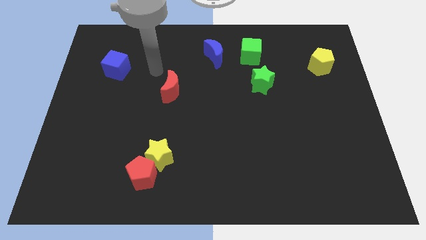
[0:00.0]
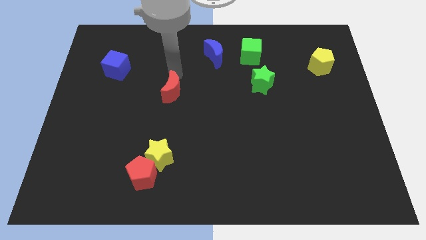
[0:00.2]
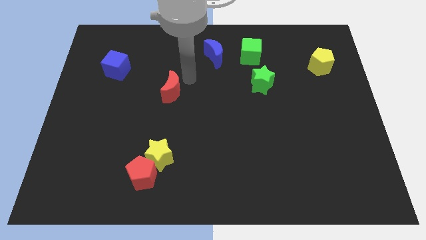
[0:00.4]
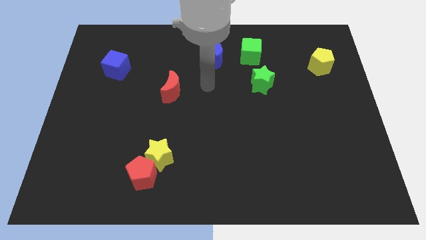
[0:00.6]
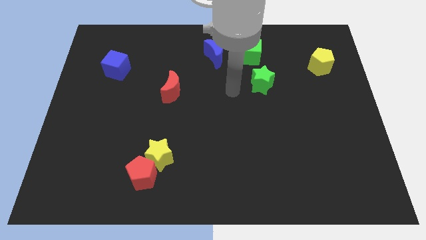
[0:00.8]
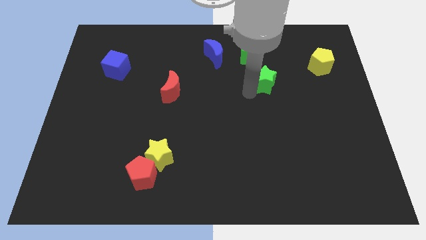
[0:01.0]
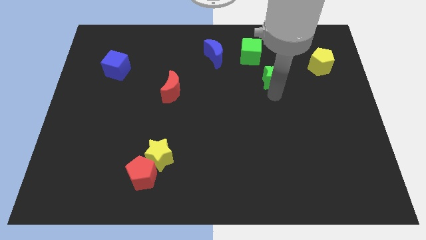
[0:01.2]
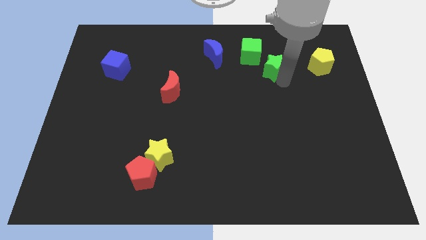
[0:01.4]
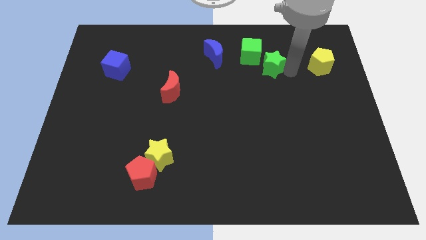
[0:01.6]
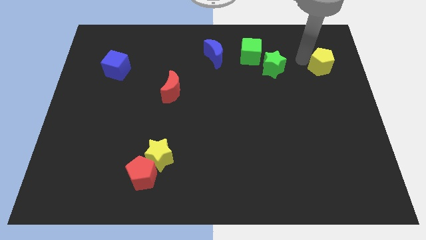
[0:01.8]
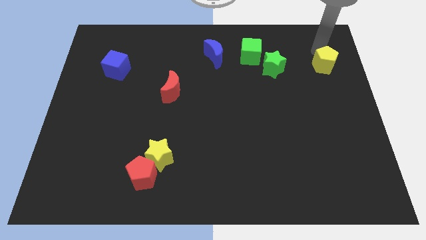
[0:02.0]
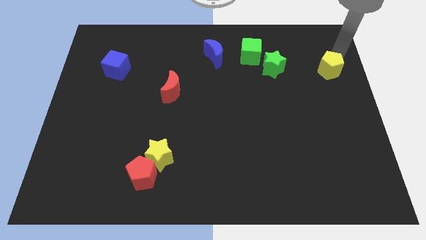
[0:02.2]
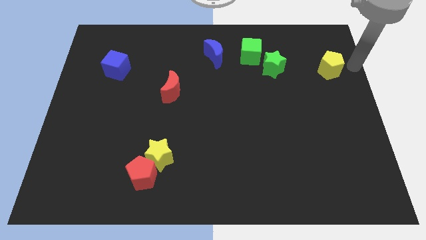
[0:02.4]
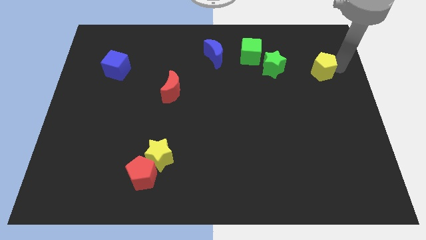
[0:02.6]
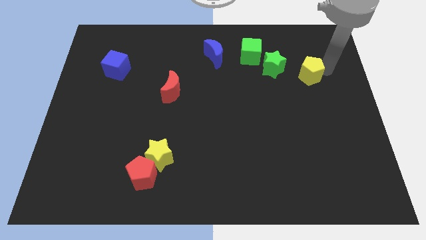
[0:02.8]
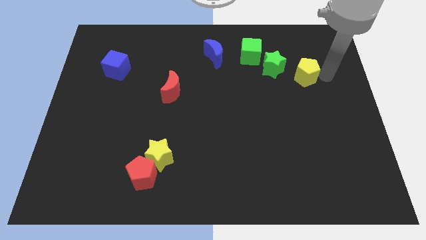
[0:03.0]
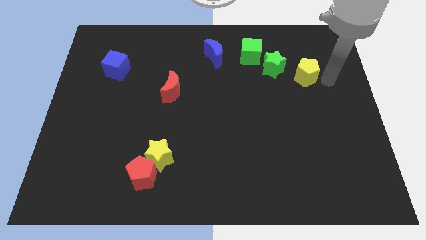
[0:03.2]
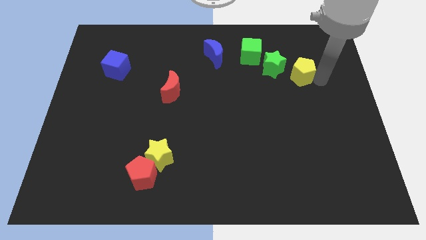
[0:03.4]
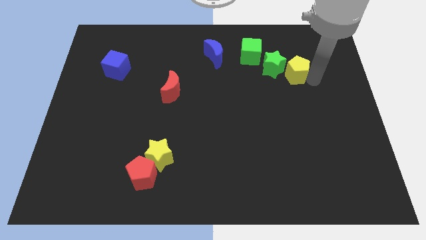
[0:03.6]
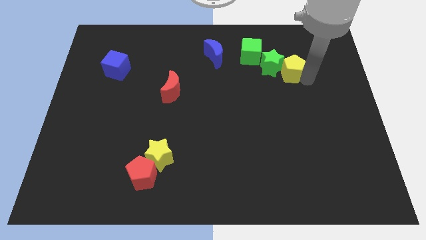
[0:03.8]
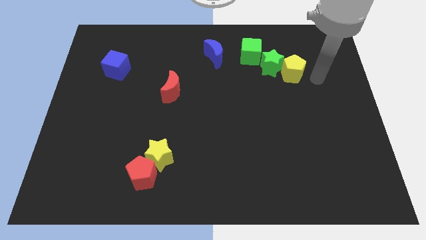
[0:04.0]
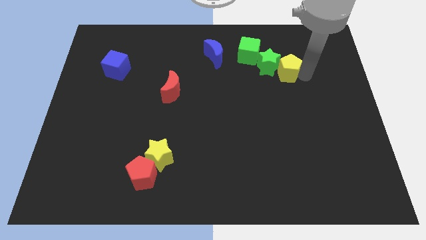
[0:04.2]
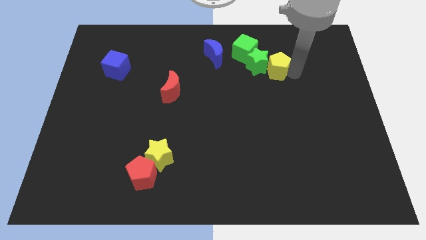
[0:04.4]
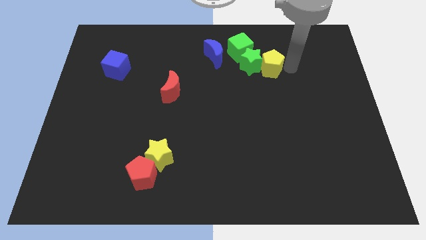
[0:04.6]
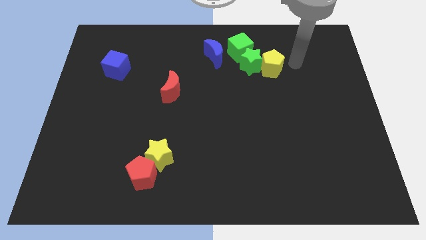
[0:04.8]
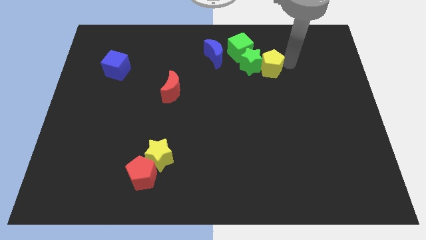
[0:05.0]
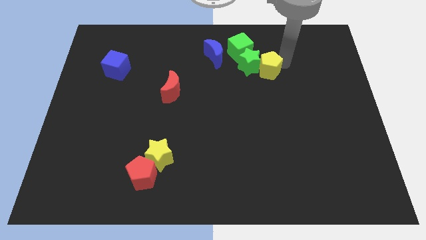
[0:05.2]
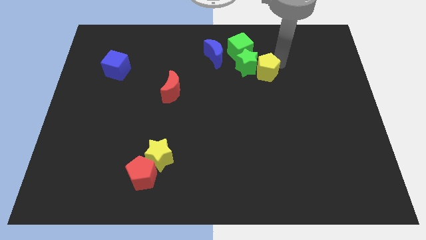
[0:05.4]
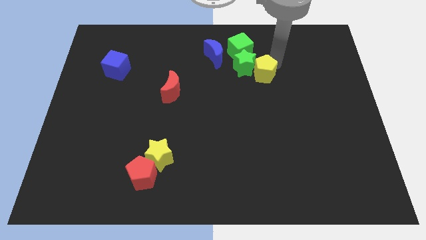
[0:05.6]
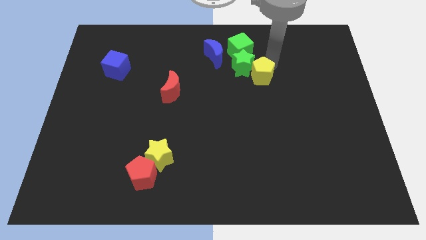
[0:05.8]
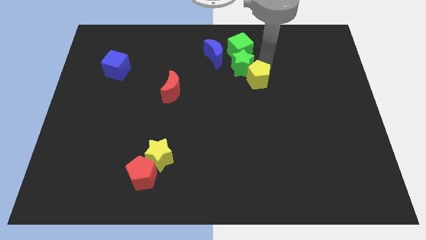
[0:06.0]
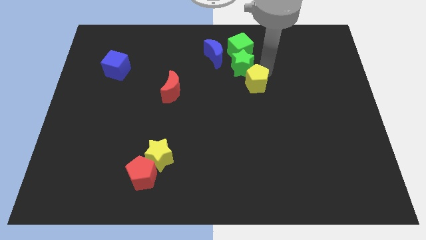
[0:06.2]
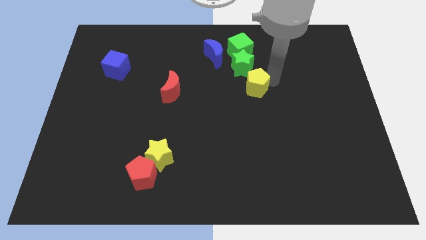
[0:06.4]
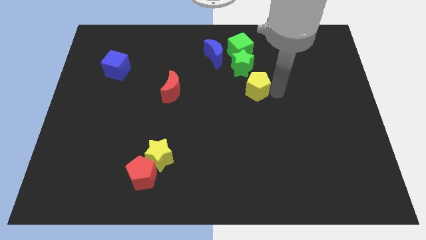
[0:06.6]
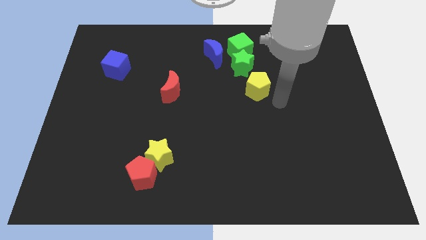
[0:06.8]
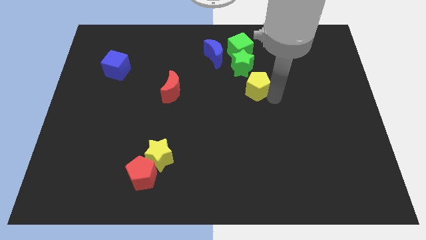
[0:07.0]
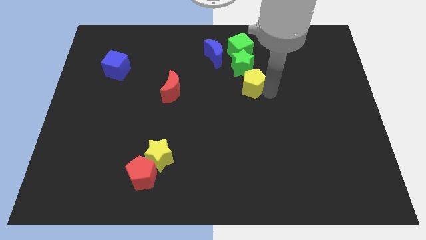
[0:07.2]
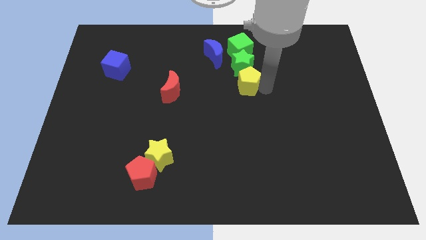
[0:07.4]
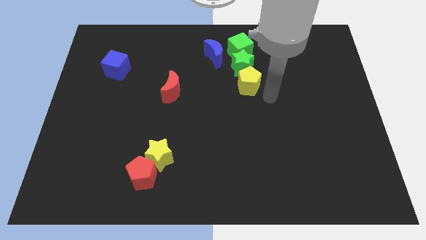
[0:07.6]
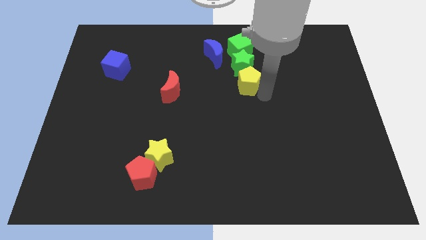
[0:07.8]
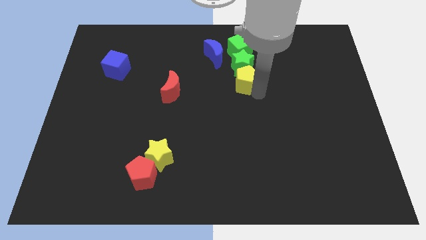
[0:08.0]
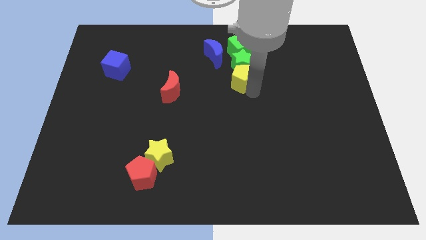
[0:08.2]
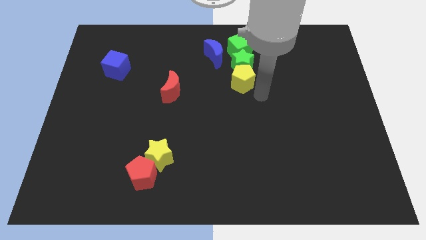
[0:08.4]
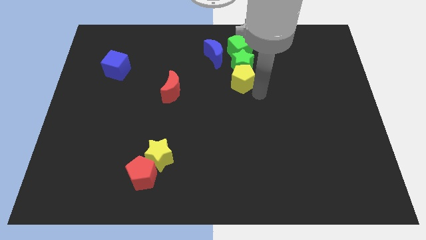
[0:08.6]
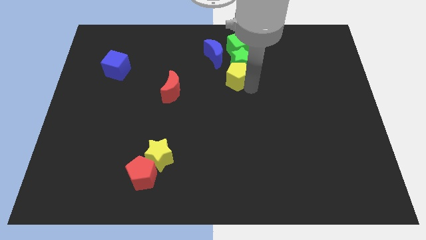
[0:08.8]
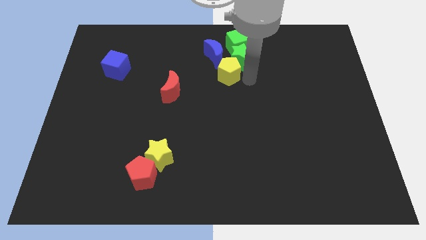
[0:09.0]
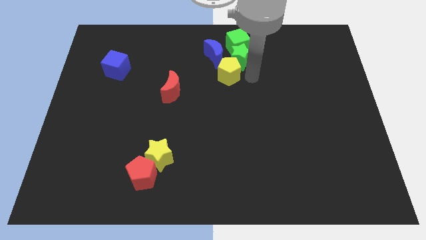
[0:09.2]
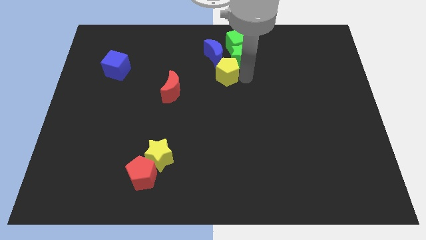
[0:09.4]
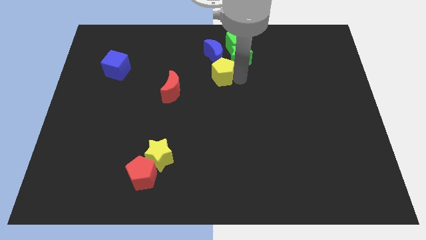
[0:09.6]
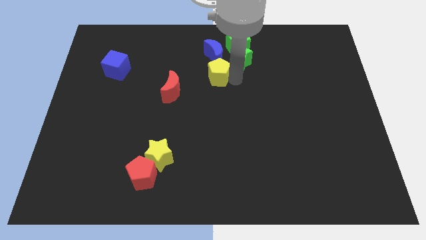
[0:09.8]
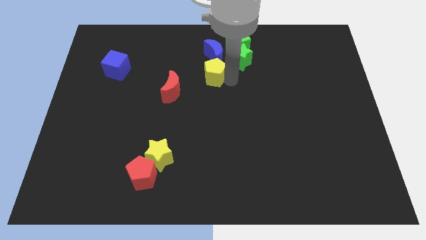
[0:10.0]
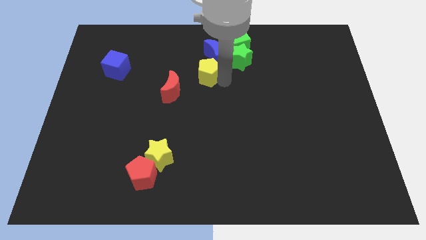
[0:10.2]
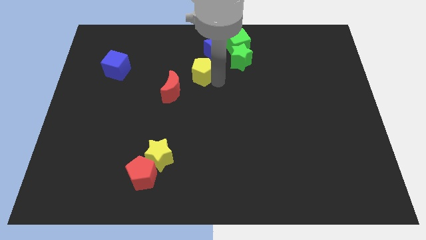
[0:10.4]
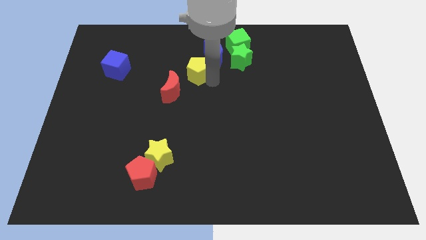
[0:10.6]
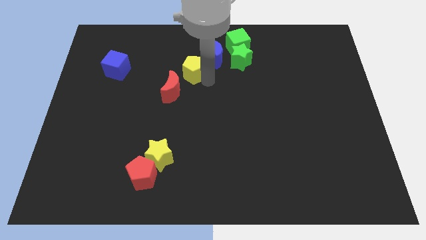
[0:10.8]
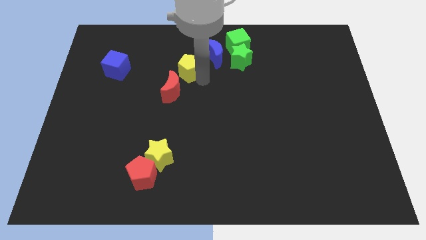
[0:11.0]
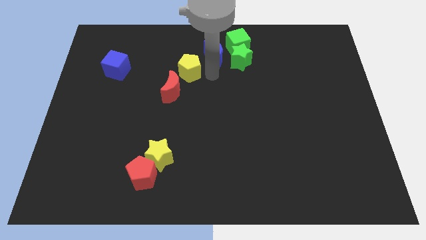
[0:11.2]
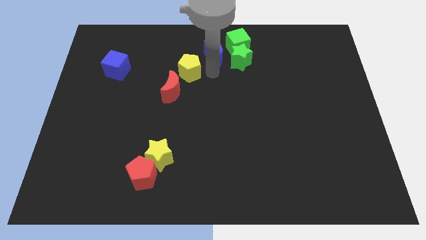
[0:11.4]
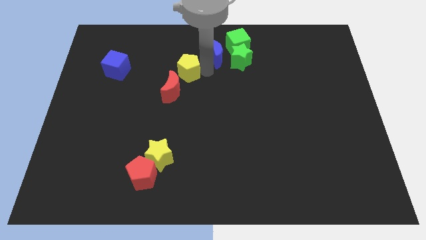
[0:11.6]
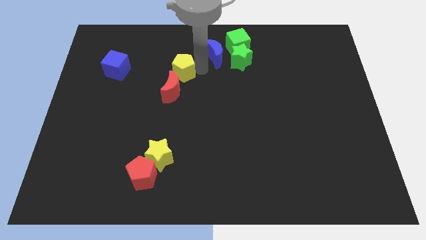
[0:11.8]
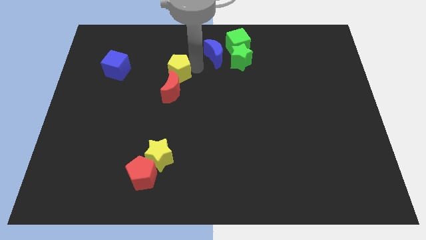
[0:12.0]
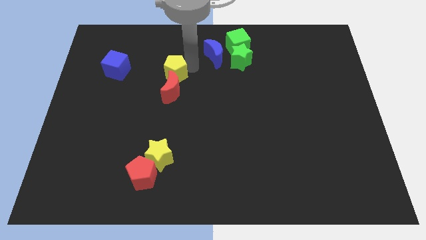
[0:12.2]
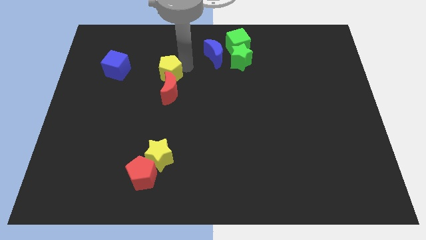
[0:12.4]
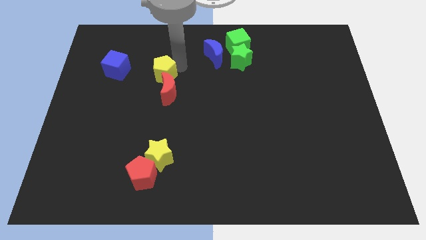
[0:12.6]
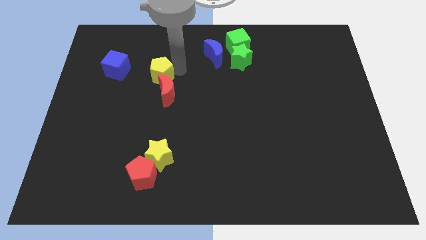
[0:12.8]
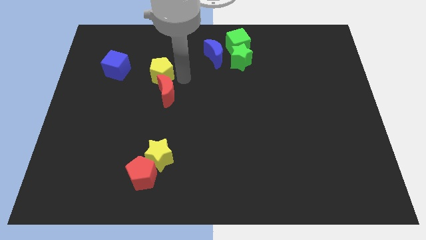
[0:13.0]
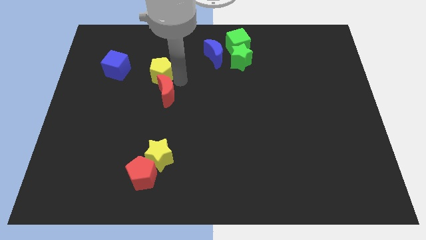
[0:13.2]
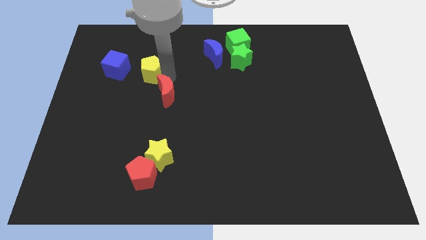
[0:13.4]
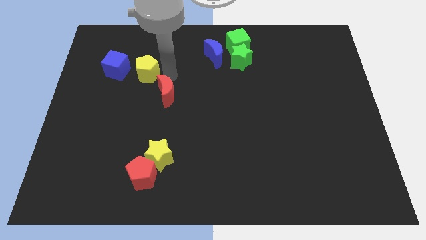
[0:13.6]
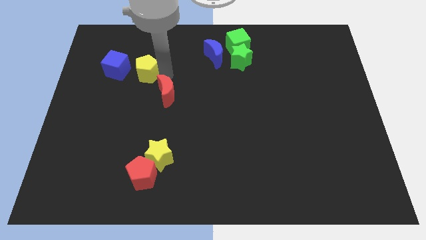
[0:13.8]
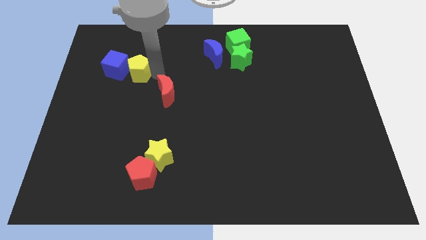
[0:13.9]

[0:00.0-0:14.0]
push the yellow pentagon to the blue cube

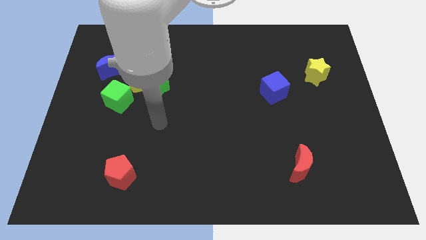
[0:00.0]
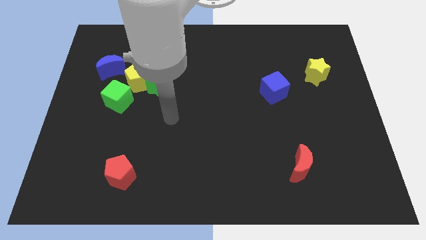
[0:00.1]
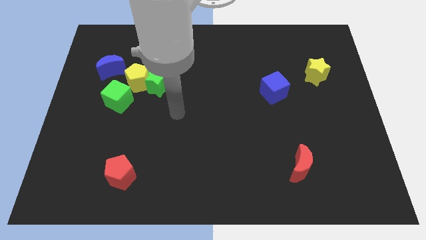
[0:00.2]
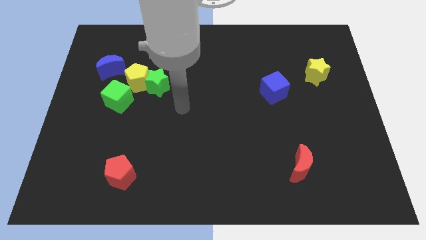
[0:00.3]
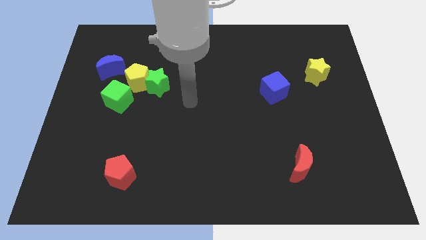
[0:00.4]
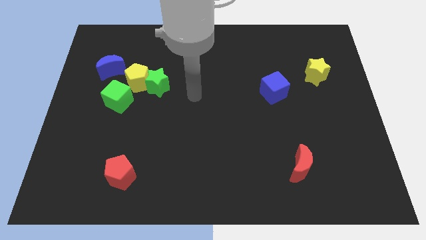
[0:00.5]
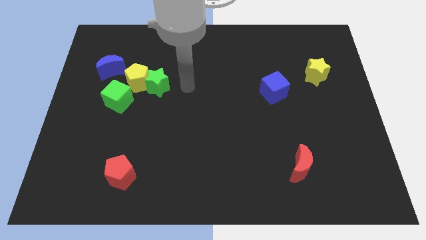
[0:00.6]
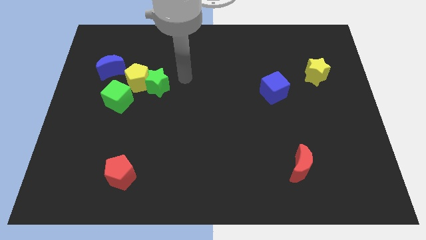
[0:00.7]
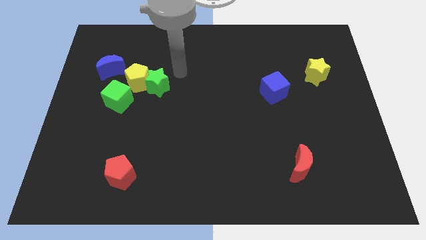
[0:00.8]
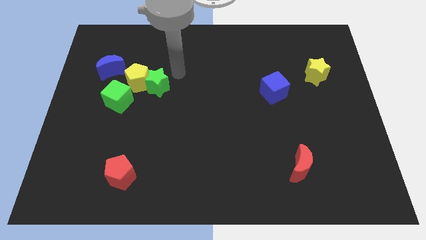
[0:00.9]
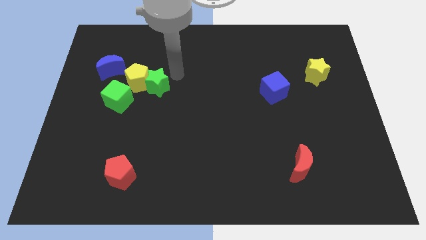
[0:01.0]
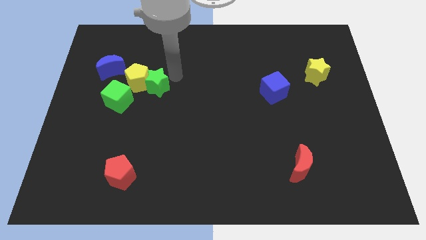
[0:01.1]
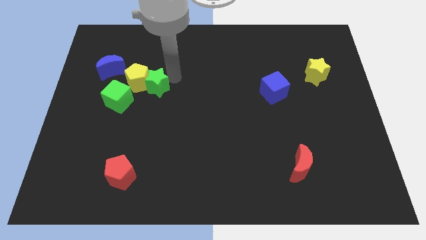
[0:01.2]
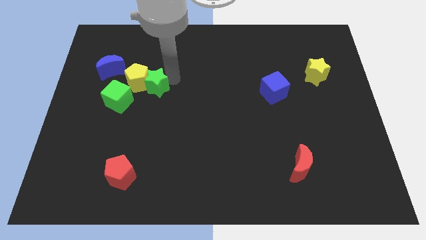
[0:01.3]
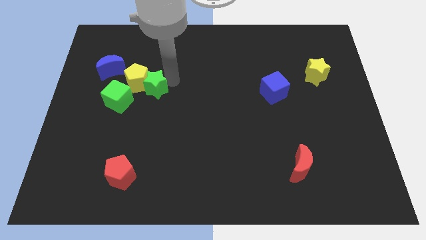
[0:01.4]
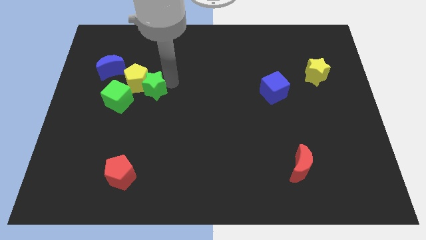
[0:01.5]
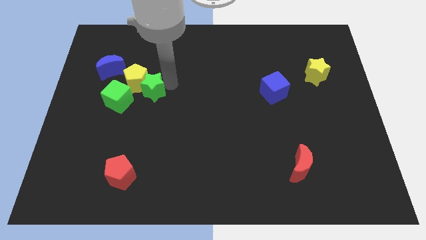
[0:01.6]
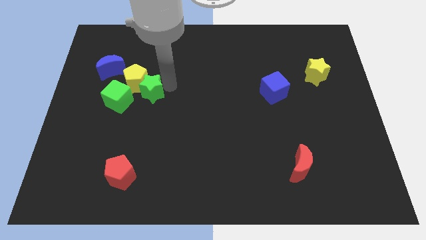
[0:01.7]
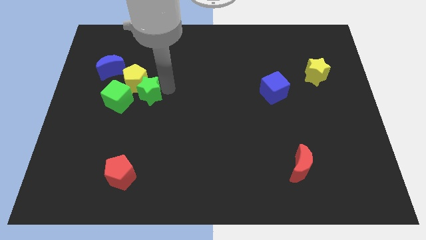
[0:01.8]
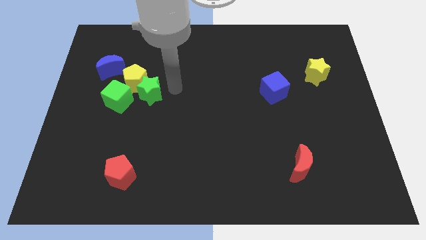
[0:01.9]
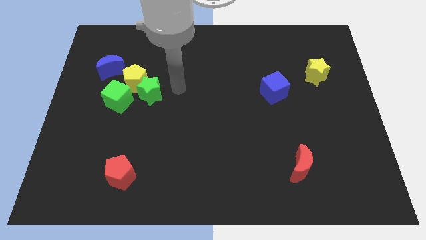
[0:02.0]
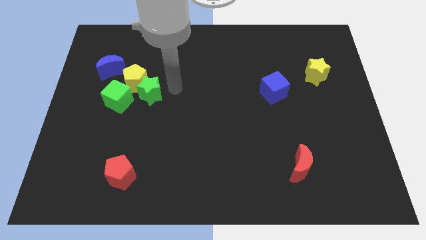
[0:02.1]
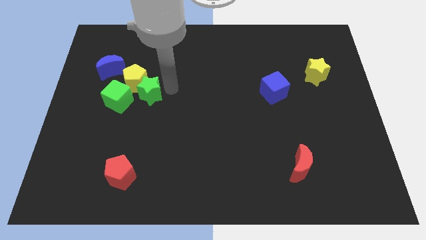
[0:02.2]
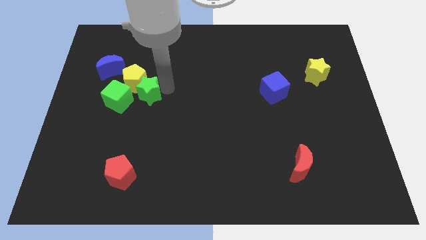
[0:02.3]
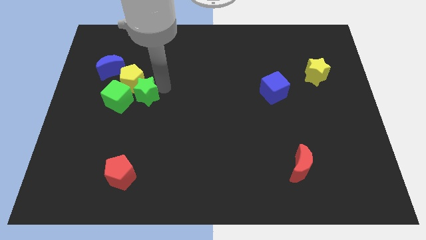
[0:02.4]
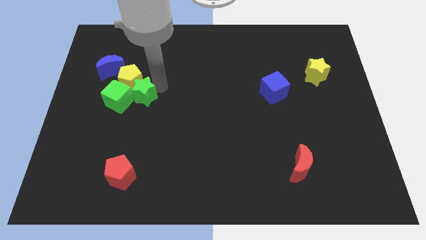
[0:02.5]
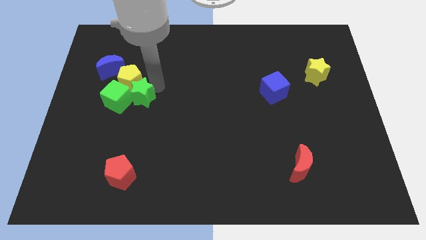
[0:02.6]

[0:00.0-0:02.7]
put the green star to the green cube
